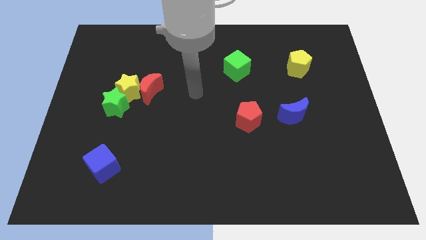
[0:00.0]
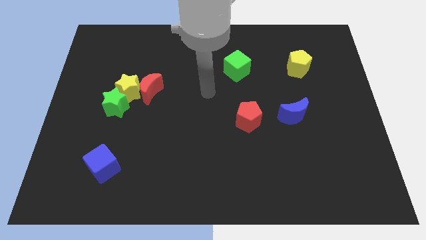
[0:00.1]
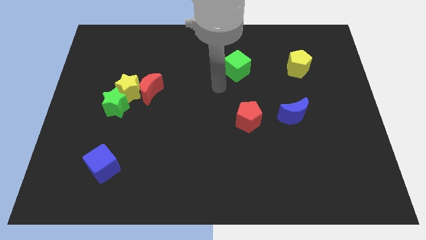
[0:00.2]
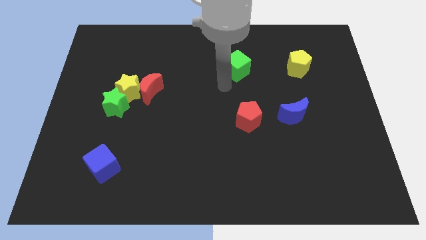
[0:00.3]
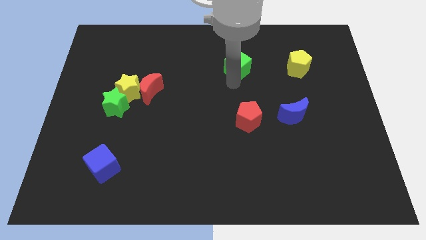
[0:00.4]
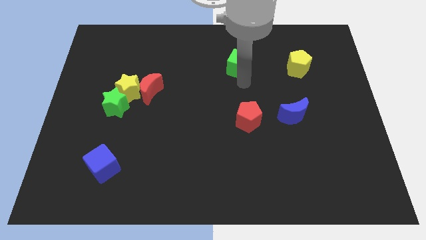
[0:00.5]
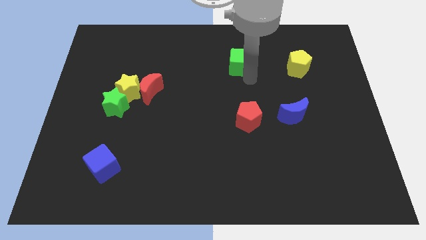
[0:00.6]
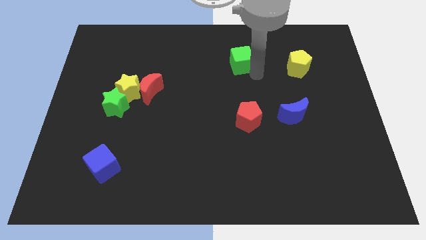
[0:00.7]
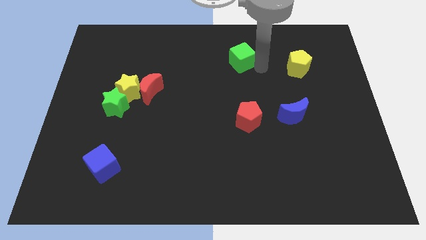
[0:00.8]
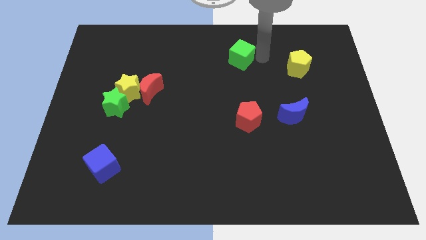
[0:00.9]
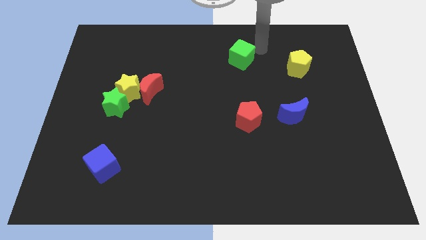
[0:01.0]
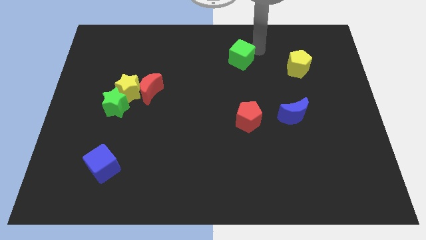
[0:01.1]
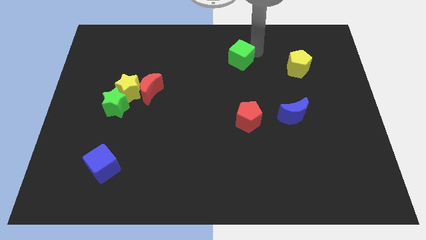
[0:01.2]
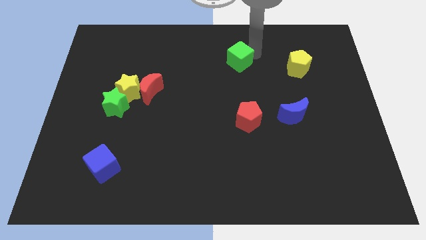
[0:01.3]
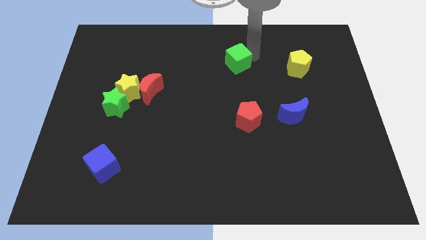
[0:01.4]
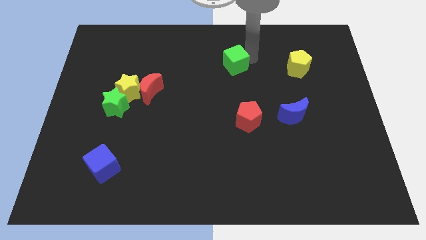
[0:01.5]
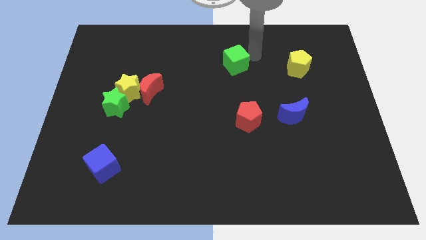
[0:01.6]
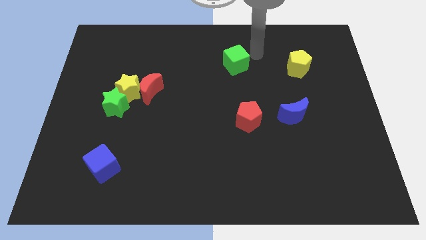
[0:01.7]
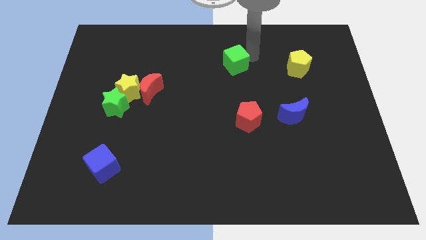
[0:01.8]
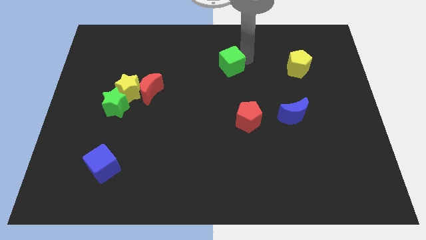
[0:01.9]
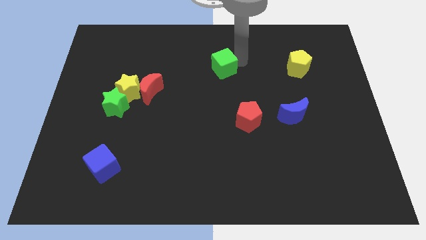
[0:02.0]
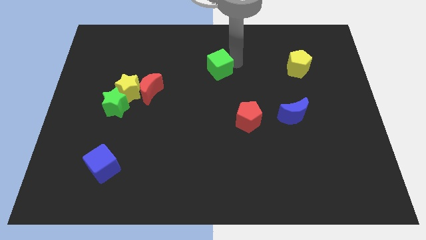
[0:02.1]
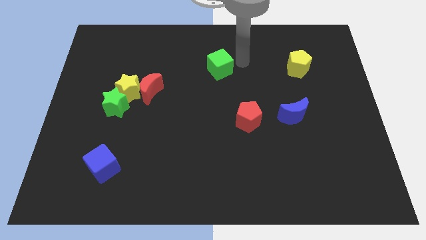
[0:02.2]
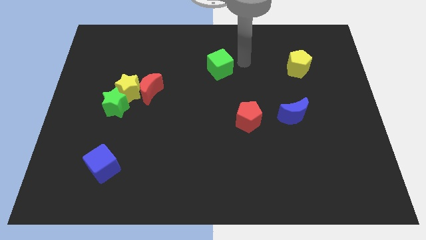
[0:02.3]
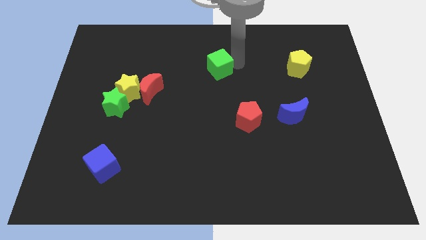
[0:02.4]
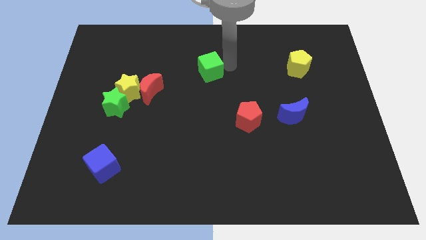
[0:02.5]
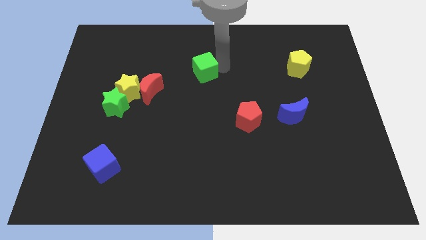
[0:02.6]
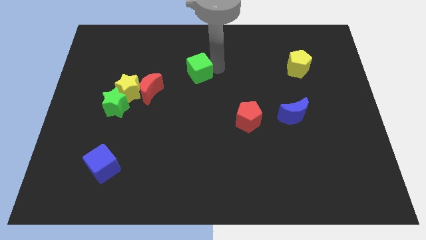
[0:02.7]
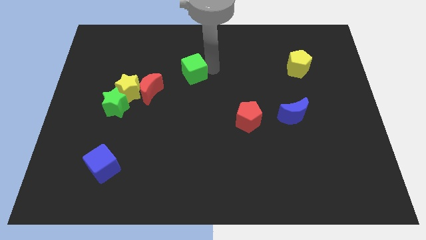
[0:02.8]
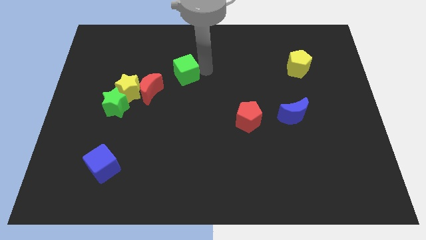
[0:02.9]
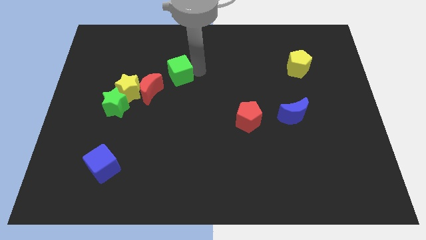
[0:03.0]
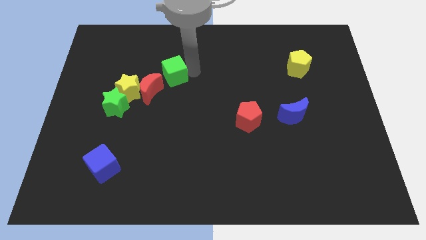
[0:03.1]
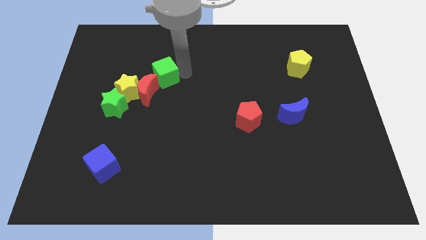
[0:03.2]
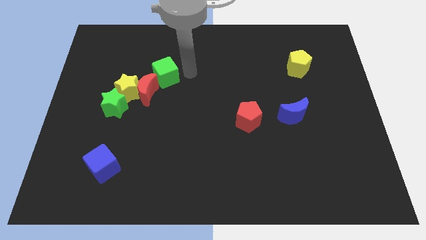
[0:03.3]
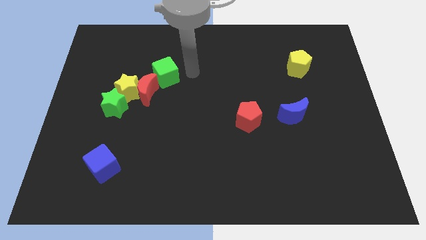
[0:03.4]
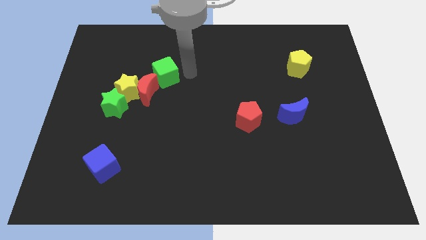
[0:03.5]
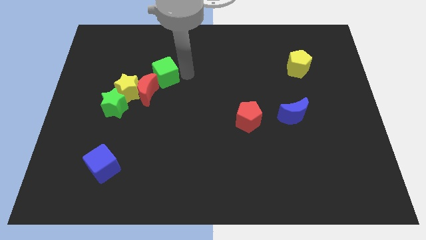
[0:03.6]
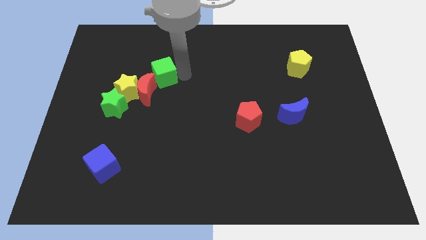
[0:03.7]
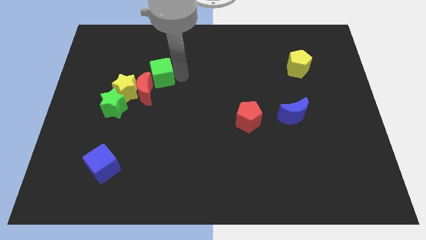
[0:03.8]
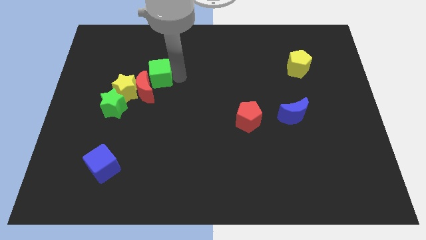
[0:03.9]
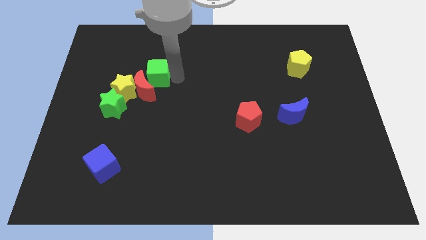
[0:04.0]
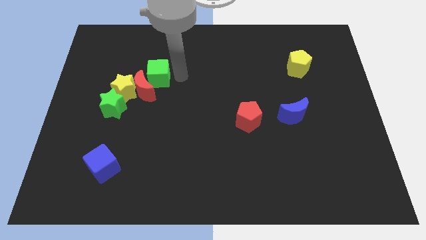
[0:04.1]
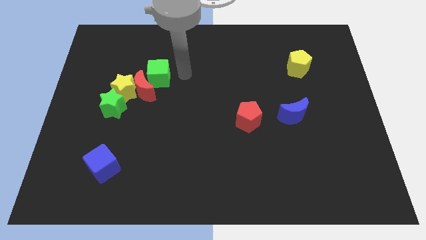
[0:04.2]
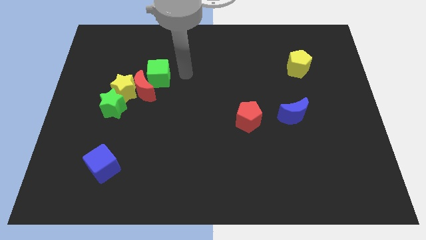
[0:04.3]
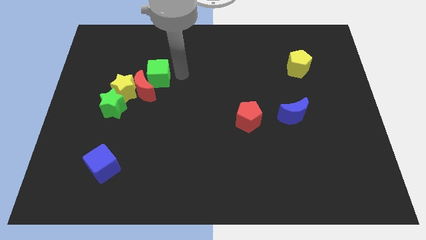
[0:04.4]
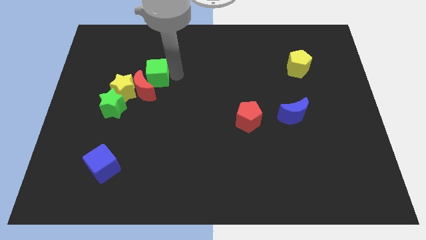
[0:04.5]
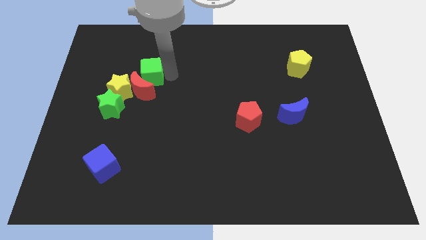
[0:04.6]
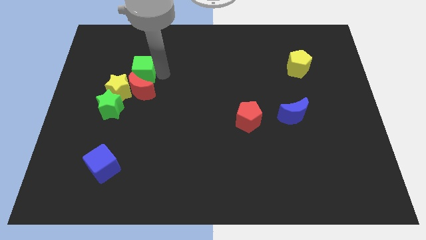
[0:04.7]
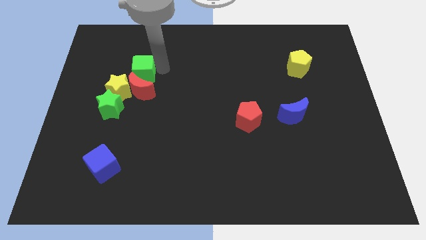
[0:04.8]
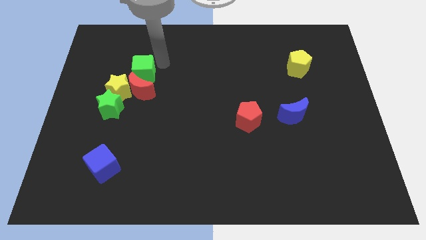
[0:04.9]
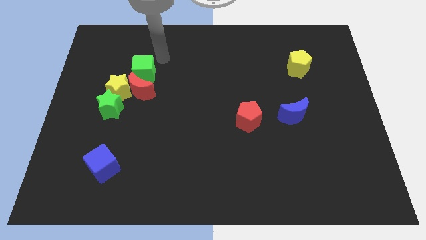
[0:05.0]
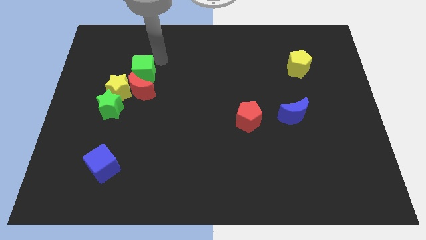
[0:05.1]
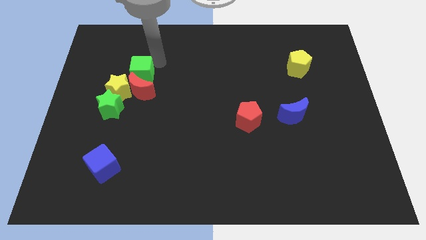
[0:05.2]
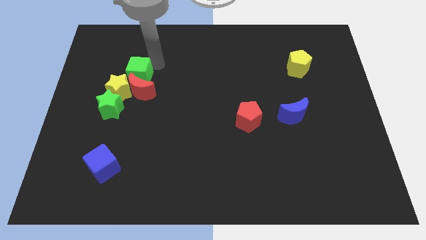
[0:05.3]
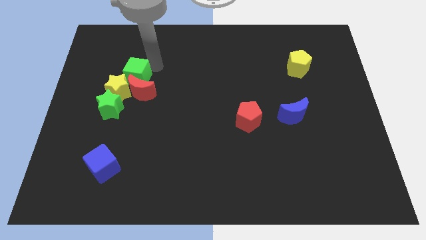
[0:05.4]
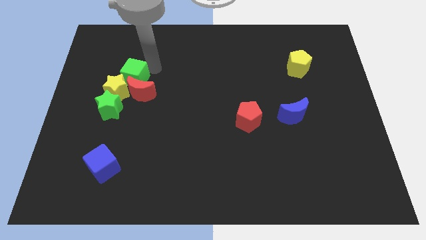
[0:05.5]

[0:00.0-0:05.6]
put the green cube towards the yellow star

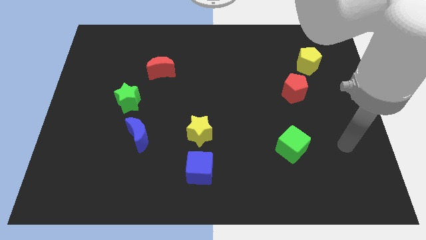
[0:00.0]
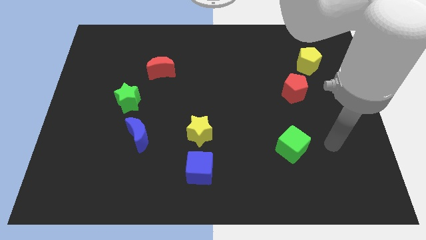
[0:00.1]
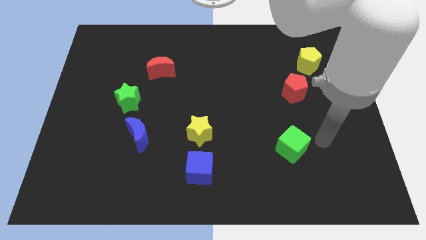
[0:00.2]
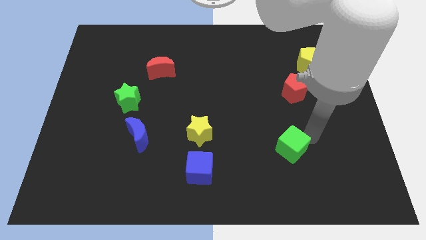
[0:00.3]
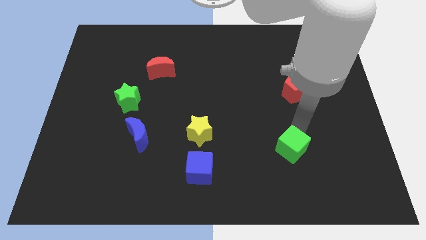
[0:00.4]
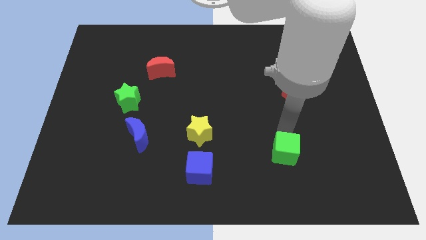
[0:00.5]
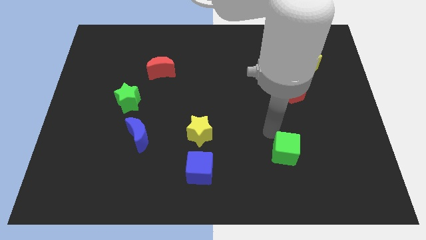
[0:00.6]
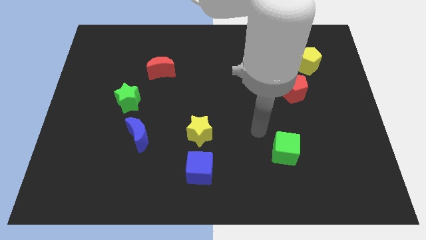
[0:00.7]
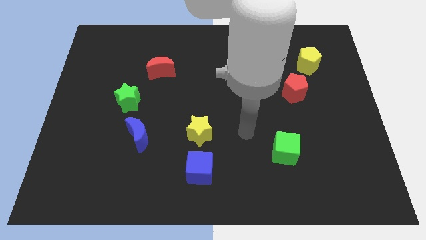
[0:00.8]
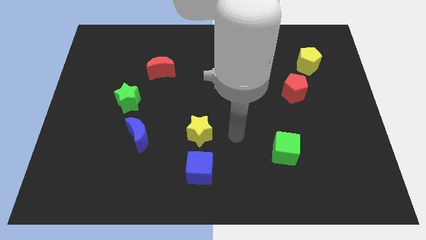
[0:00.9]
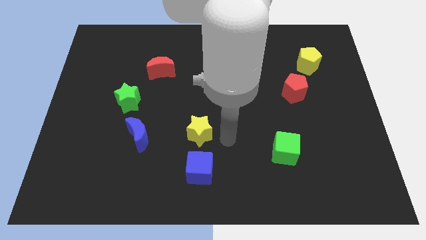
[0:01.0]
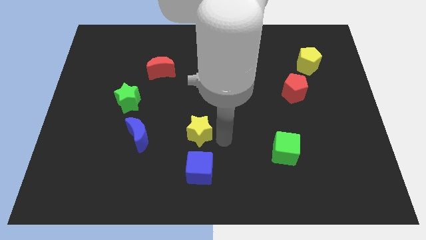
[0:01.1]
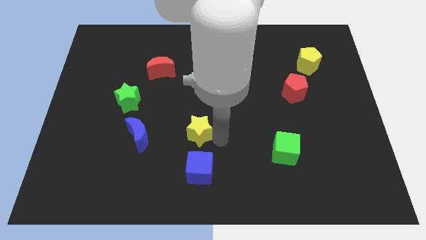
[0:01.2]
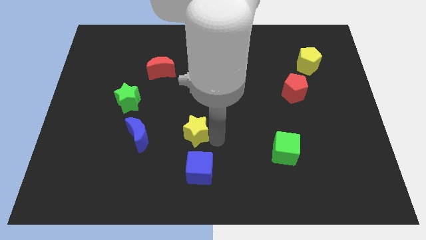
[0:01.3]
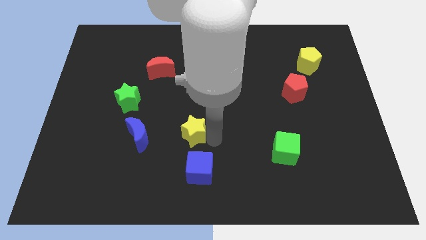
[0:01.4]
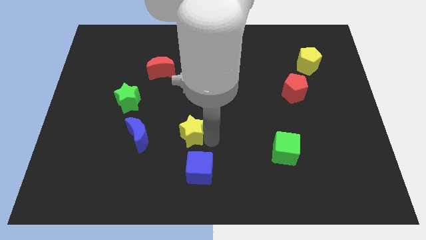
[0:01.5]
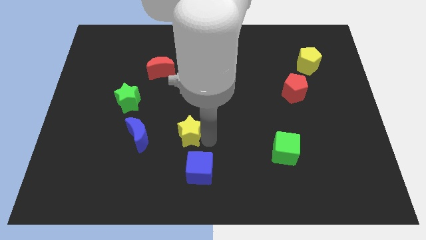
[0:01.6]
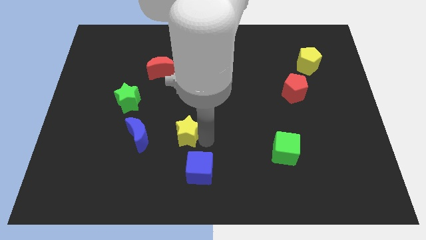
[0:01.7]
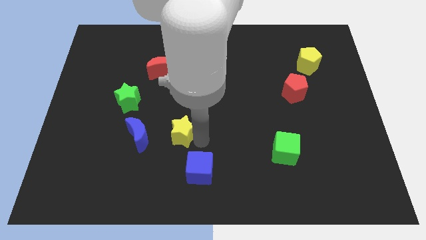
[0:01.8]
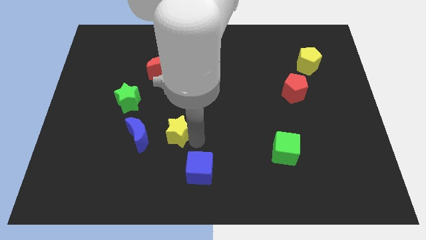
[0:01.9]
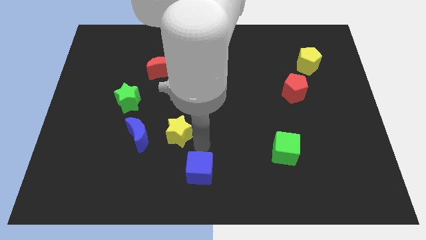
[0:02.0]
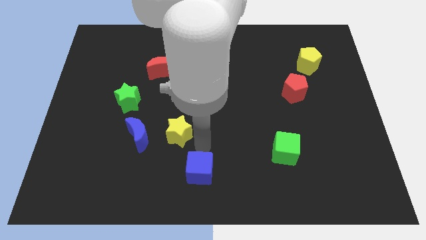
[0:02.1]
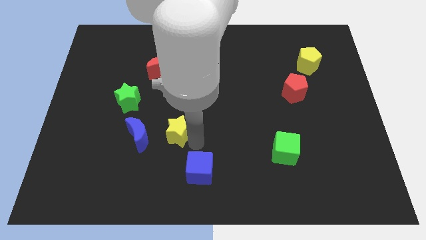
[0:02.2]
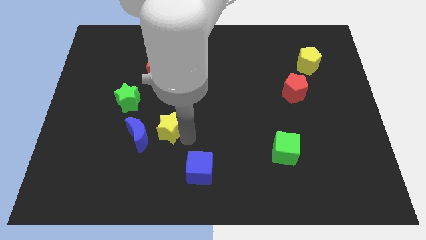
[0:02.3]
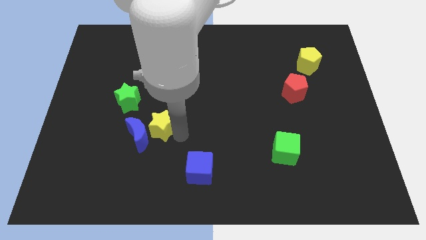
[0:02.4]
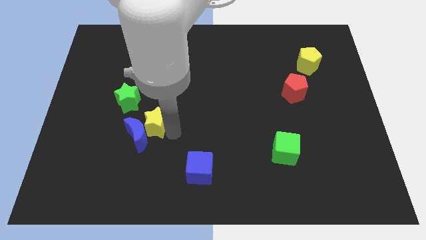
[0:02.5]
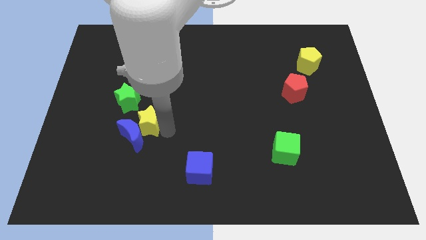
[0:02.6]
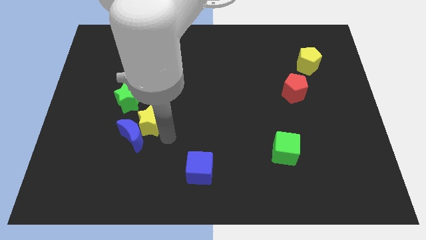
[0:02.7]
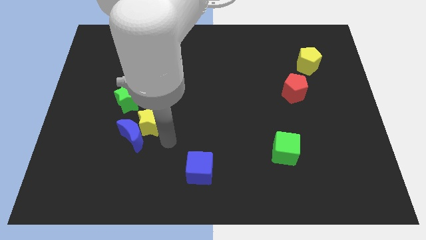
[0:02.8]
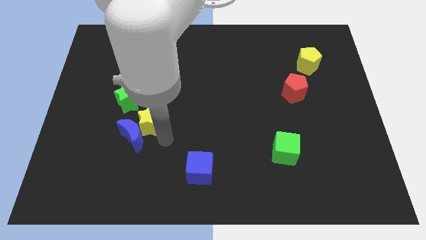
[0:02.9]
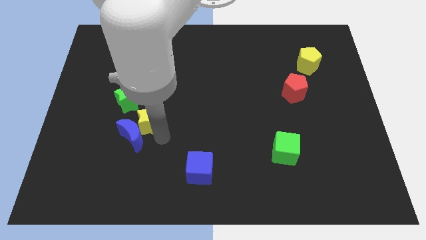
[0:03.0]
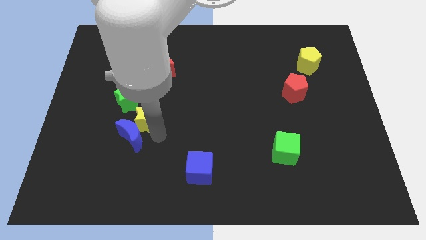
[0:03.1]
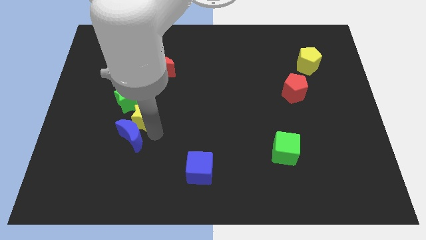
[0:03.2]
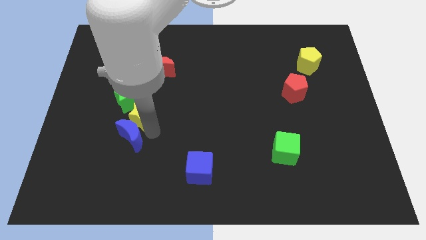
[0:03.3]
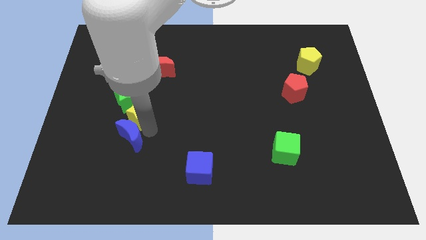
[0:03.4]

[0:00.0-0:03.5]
put the yellow star towards the green star
